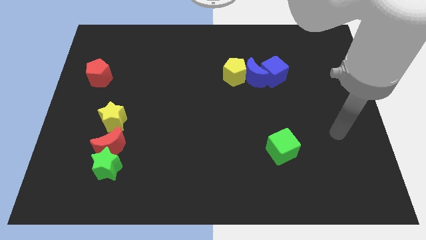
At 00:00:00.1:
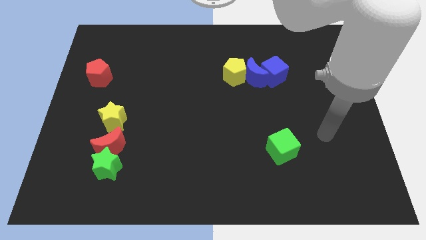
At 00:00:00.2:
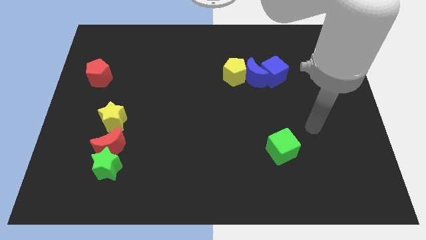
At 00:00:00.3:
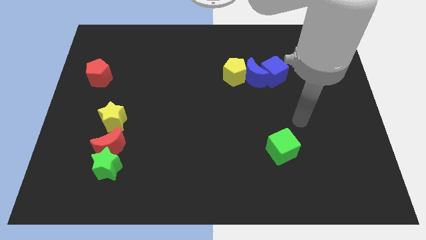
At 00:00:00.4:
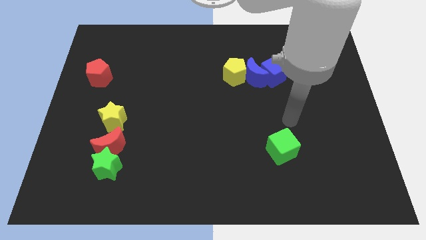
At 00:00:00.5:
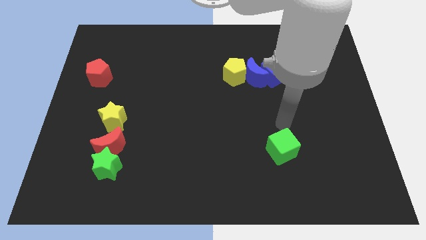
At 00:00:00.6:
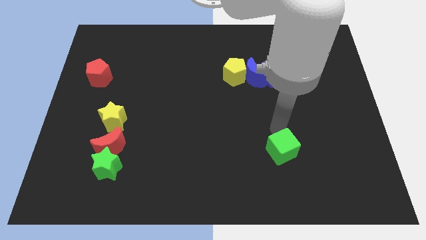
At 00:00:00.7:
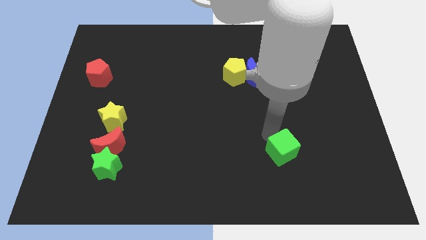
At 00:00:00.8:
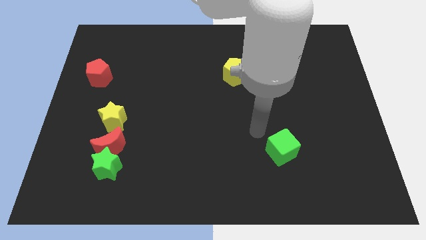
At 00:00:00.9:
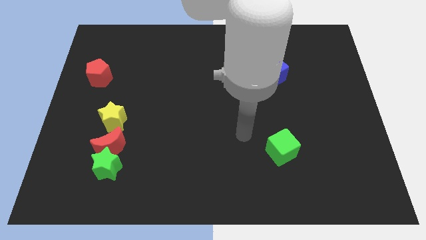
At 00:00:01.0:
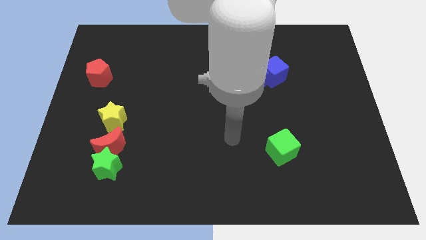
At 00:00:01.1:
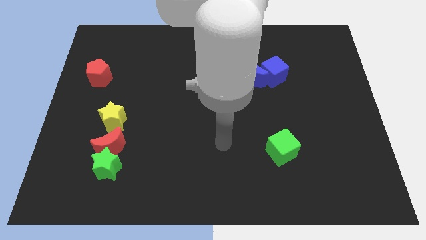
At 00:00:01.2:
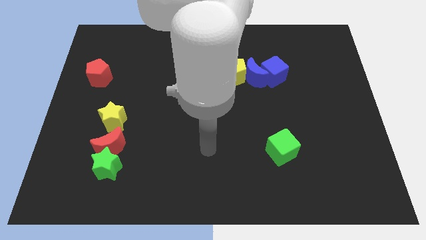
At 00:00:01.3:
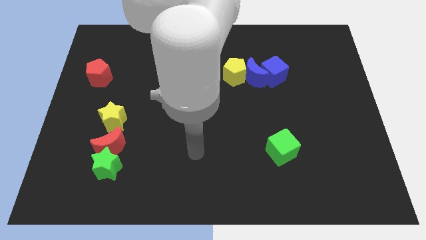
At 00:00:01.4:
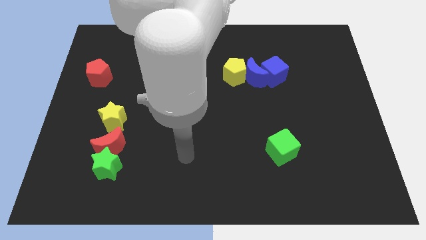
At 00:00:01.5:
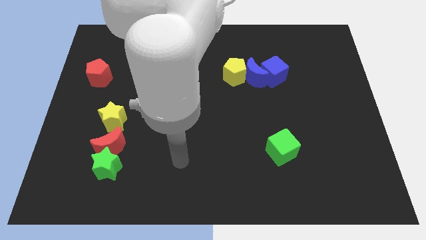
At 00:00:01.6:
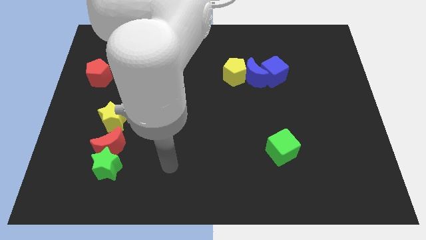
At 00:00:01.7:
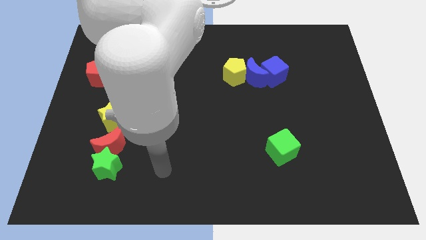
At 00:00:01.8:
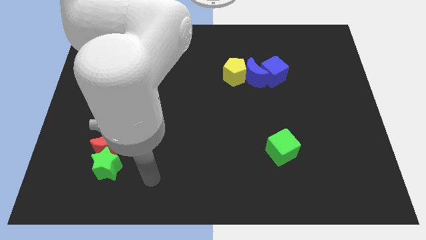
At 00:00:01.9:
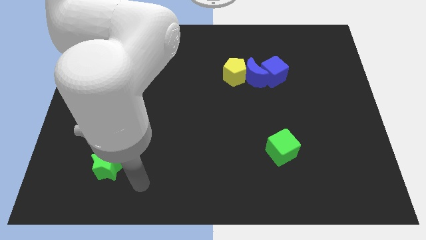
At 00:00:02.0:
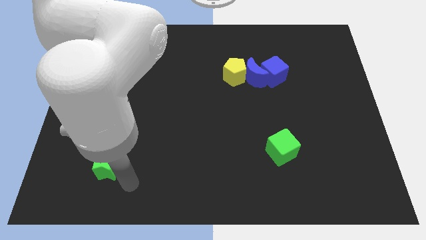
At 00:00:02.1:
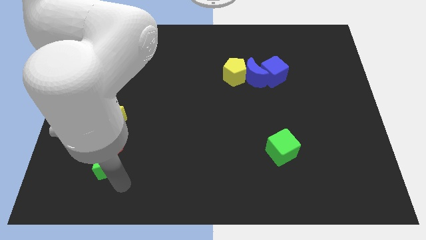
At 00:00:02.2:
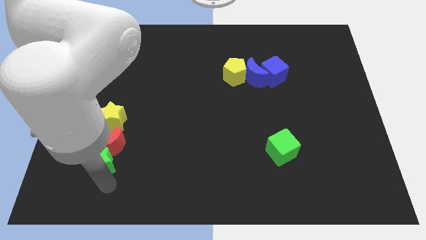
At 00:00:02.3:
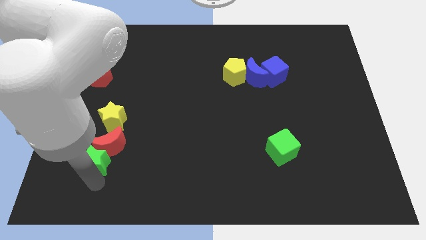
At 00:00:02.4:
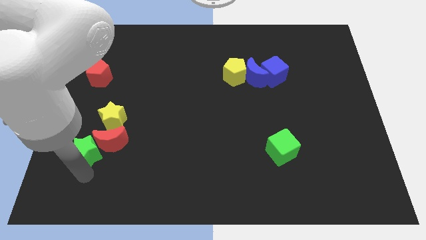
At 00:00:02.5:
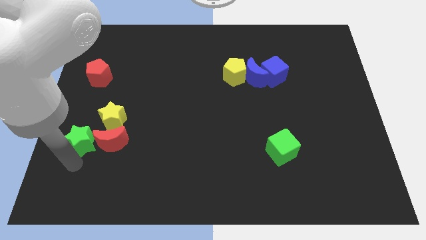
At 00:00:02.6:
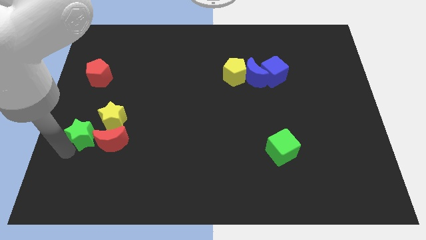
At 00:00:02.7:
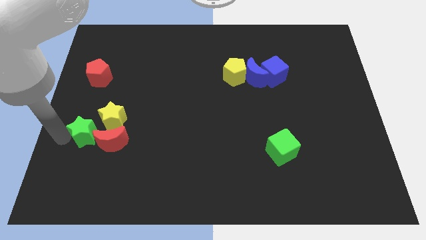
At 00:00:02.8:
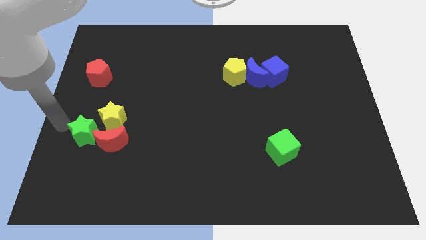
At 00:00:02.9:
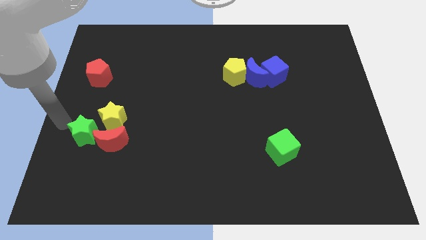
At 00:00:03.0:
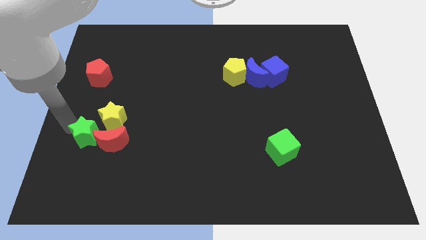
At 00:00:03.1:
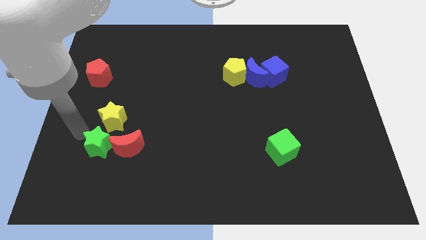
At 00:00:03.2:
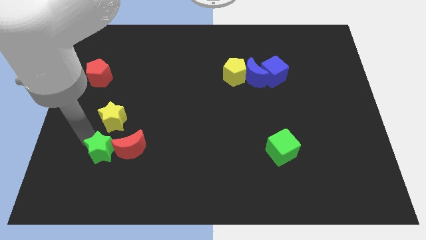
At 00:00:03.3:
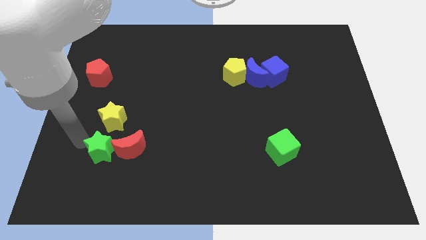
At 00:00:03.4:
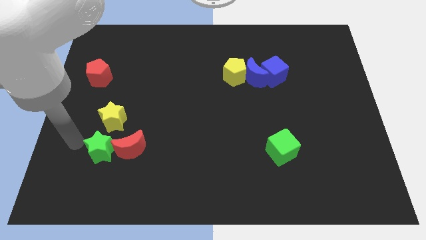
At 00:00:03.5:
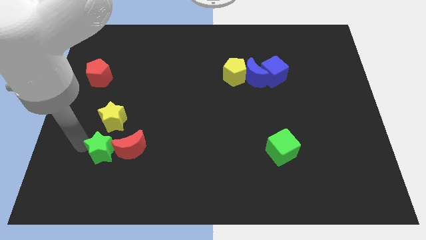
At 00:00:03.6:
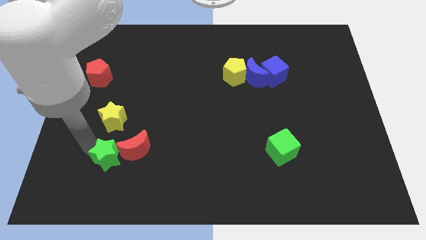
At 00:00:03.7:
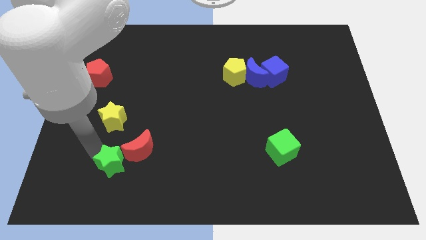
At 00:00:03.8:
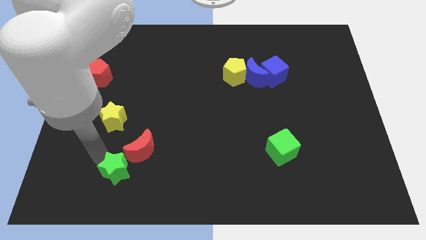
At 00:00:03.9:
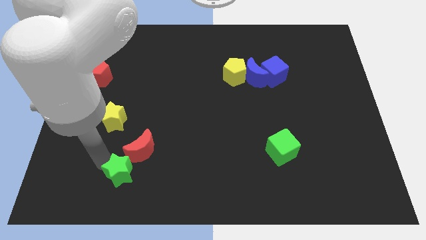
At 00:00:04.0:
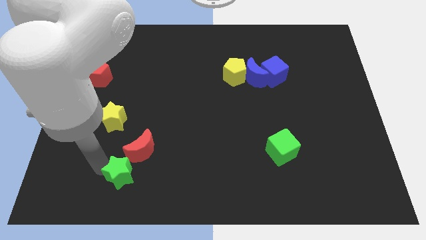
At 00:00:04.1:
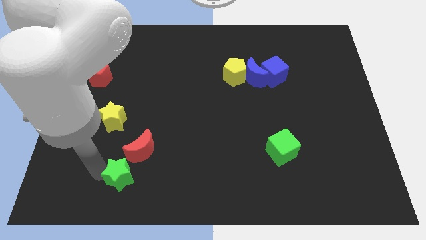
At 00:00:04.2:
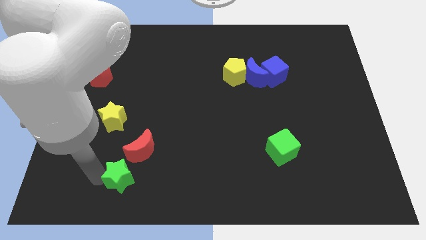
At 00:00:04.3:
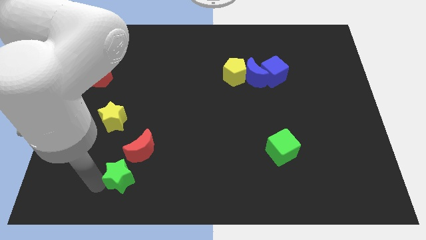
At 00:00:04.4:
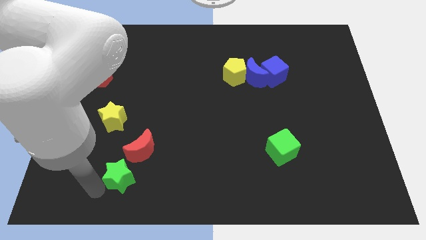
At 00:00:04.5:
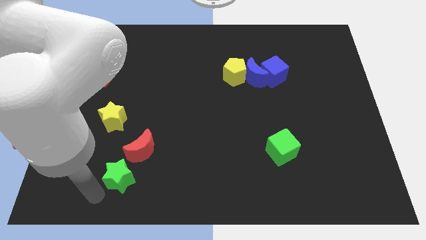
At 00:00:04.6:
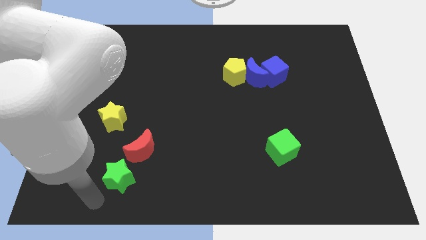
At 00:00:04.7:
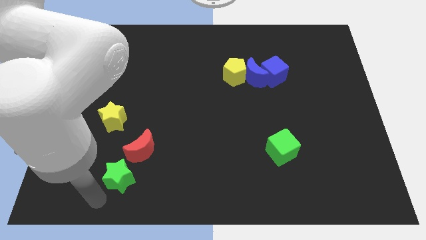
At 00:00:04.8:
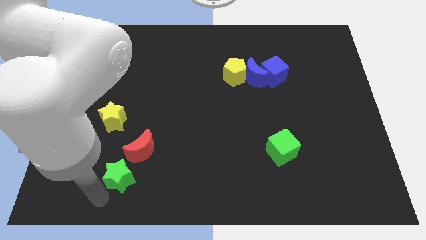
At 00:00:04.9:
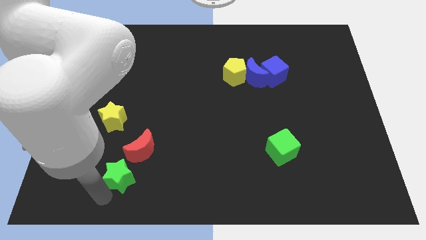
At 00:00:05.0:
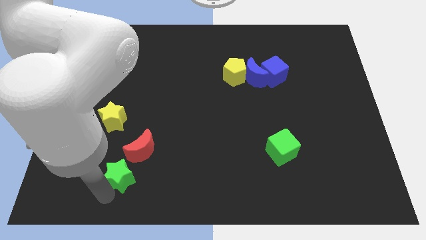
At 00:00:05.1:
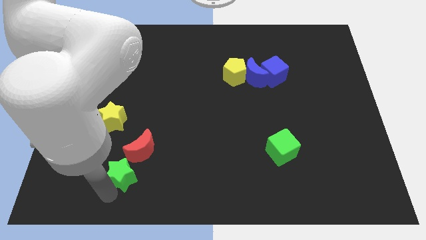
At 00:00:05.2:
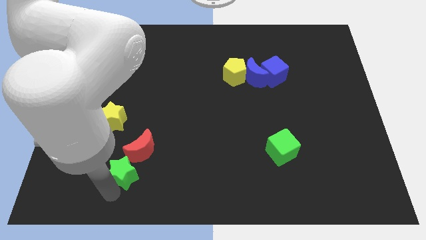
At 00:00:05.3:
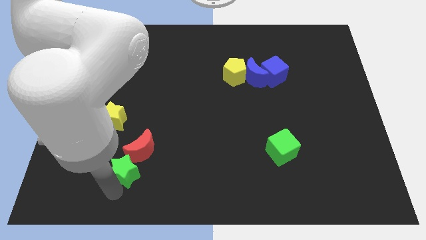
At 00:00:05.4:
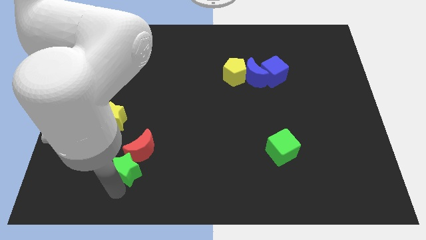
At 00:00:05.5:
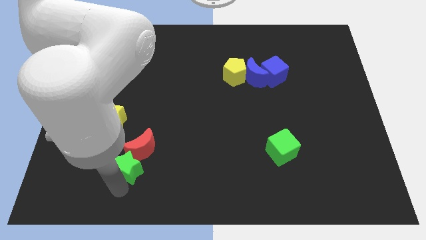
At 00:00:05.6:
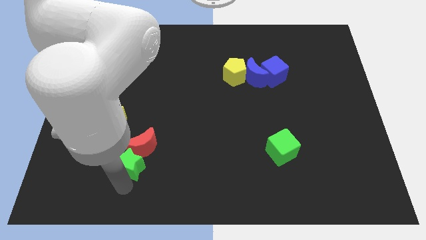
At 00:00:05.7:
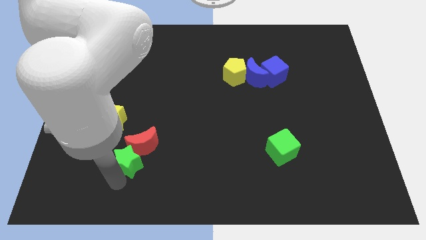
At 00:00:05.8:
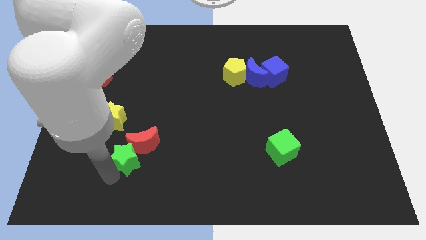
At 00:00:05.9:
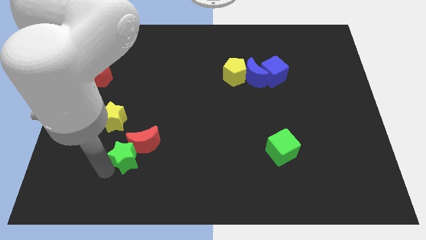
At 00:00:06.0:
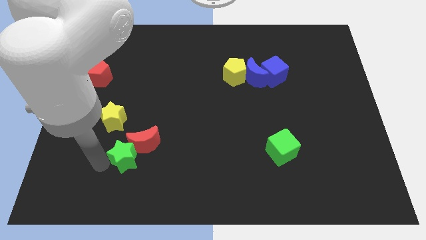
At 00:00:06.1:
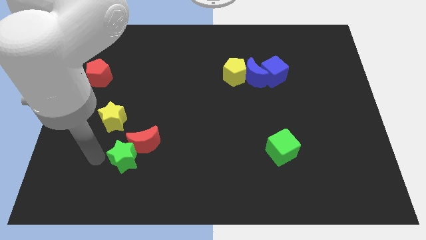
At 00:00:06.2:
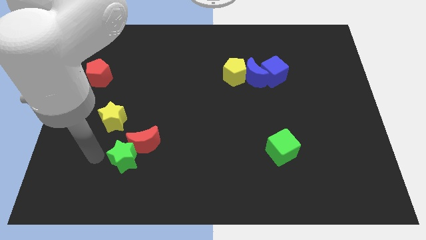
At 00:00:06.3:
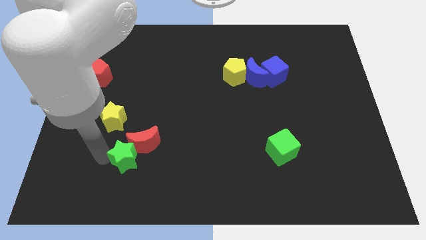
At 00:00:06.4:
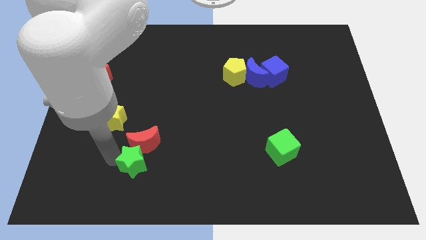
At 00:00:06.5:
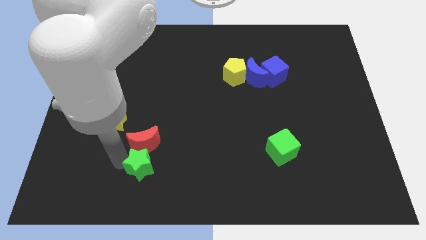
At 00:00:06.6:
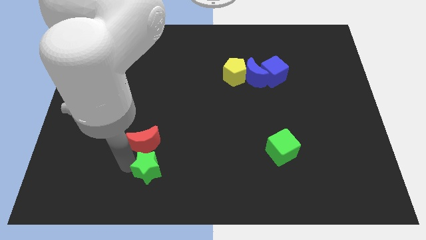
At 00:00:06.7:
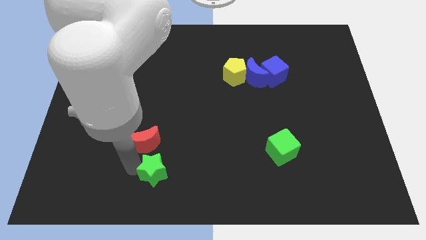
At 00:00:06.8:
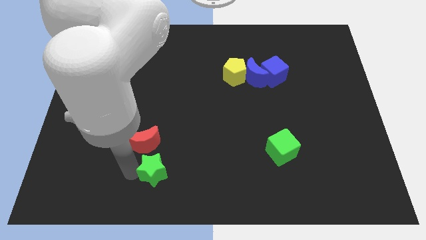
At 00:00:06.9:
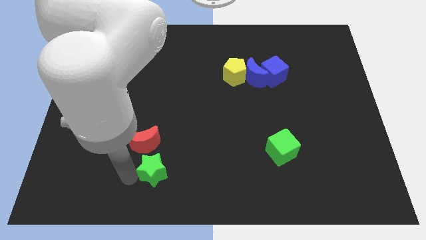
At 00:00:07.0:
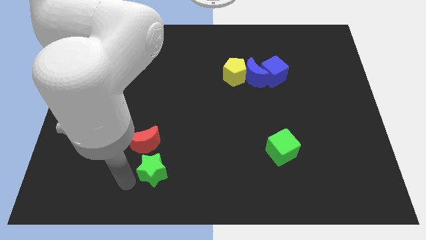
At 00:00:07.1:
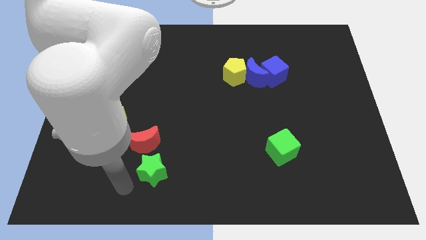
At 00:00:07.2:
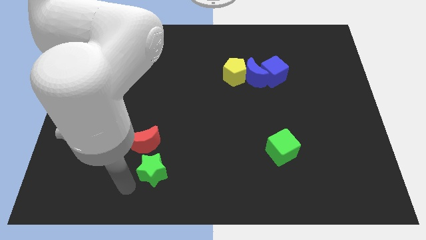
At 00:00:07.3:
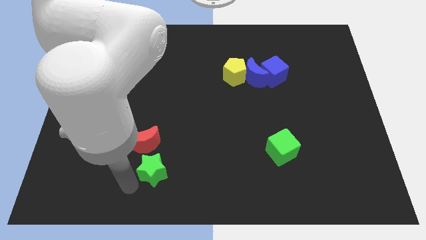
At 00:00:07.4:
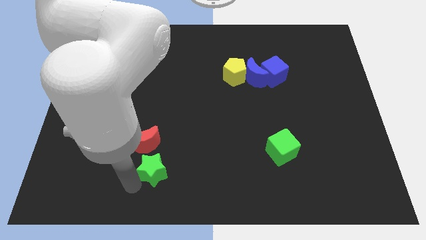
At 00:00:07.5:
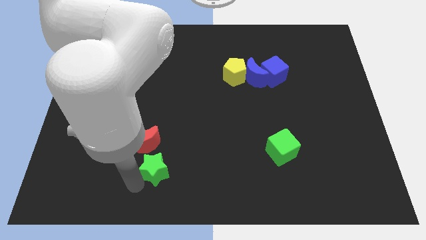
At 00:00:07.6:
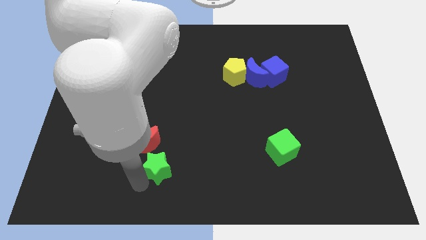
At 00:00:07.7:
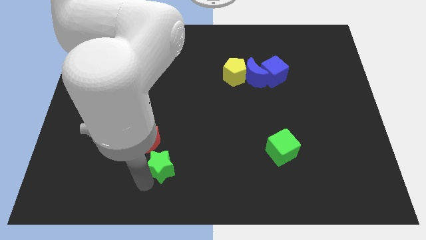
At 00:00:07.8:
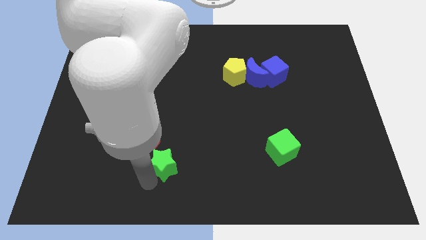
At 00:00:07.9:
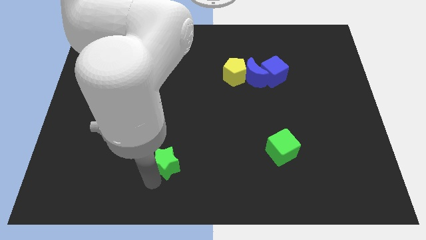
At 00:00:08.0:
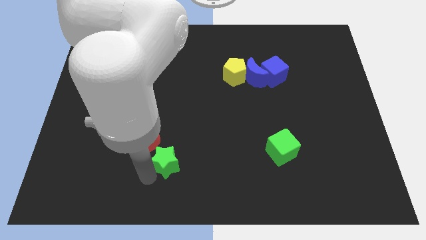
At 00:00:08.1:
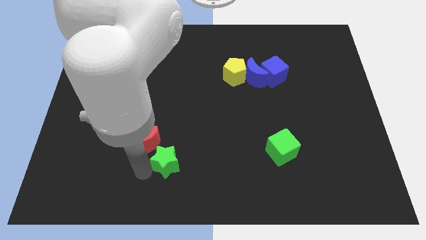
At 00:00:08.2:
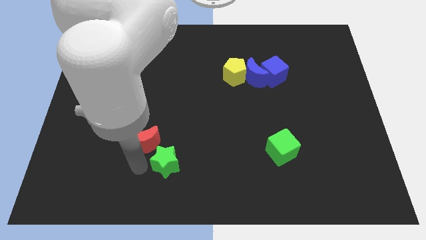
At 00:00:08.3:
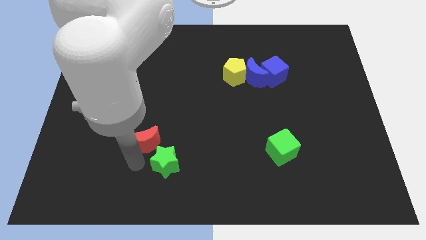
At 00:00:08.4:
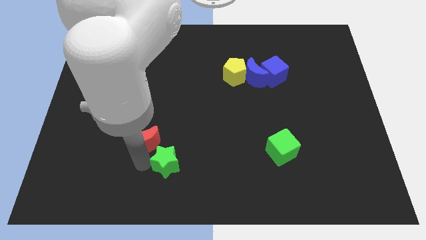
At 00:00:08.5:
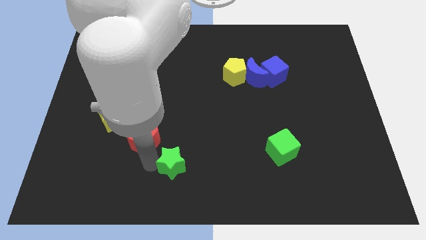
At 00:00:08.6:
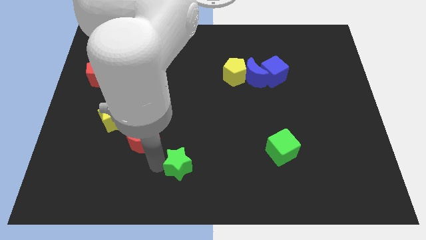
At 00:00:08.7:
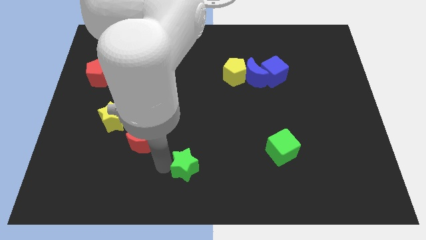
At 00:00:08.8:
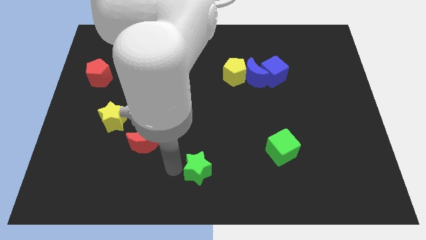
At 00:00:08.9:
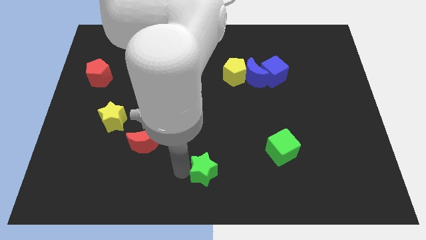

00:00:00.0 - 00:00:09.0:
move the green star to the right
